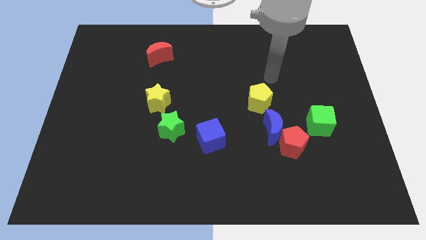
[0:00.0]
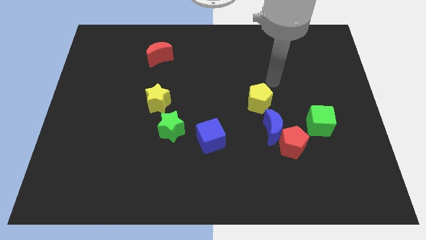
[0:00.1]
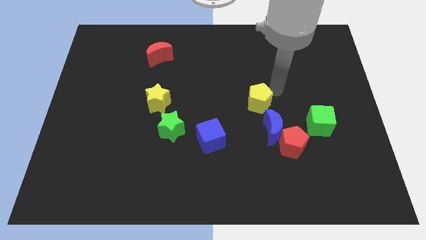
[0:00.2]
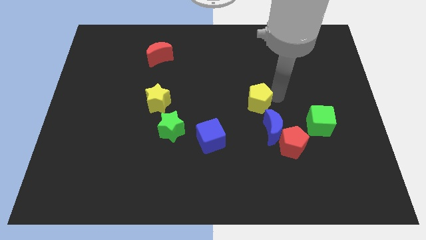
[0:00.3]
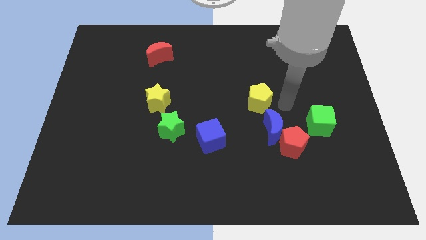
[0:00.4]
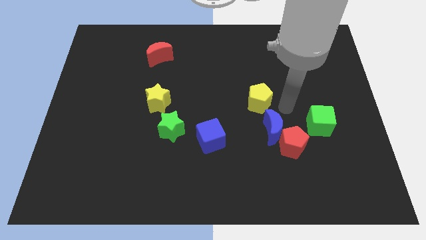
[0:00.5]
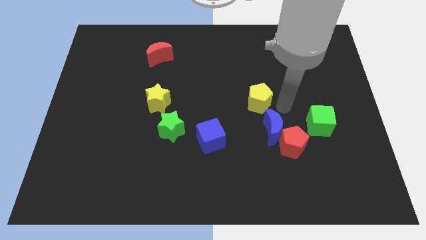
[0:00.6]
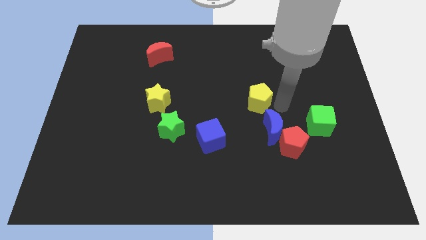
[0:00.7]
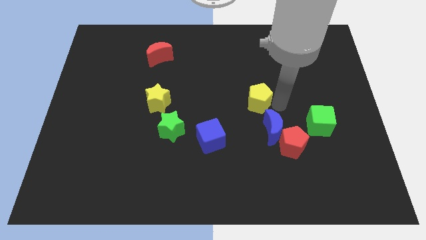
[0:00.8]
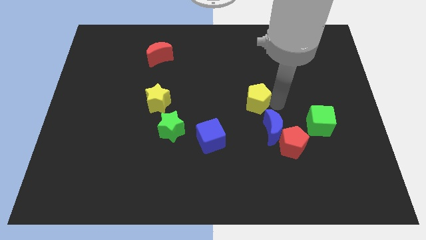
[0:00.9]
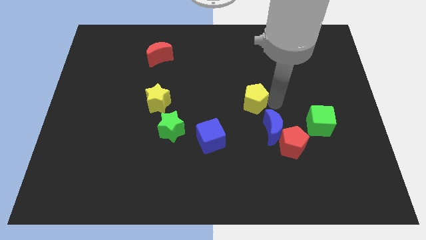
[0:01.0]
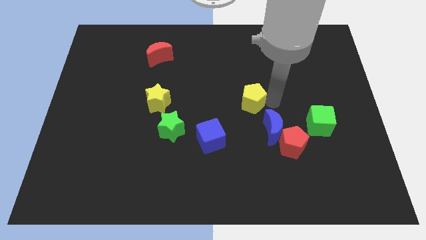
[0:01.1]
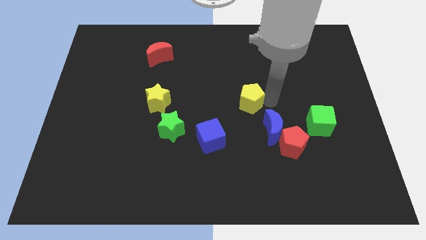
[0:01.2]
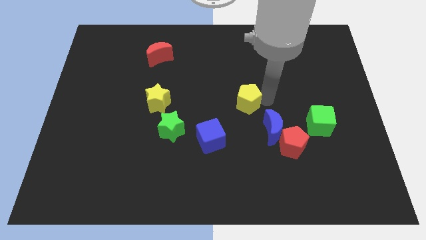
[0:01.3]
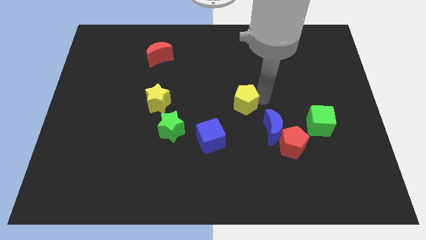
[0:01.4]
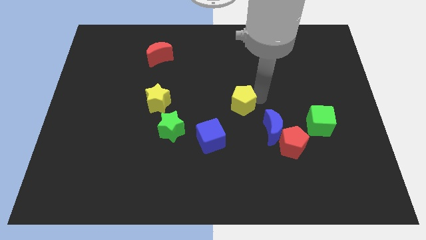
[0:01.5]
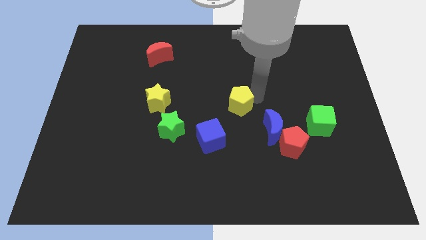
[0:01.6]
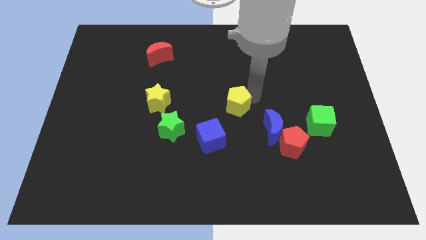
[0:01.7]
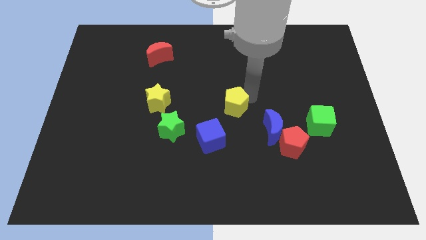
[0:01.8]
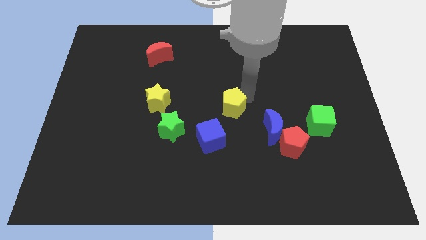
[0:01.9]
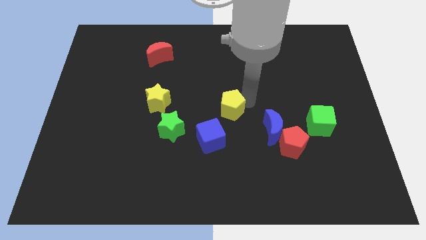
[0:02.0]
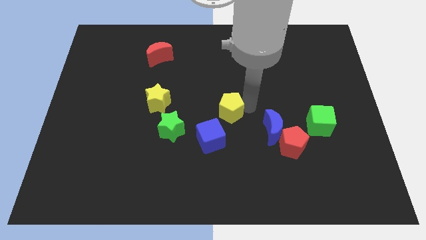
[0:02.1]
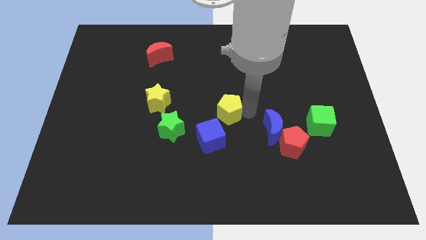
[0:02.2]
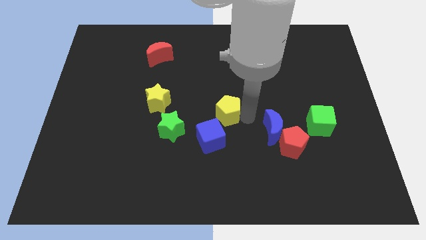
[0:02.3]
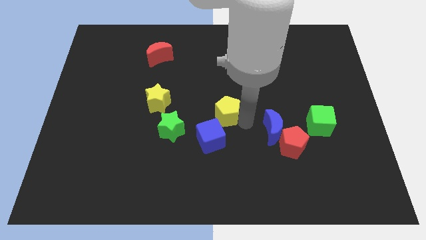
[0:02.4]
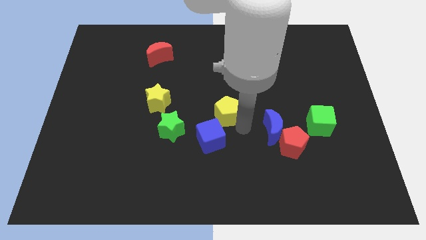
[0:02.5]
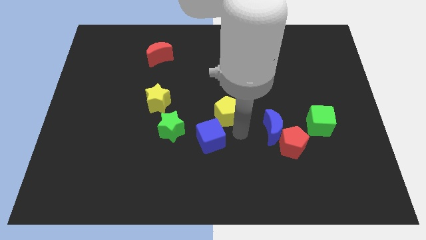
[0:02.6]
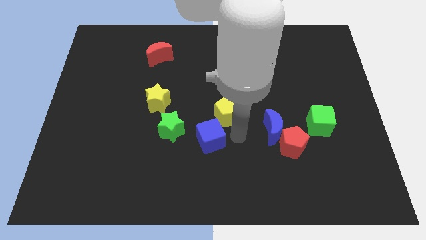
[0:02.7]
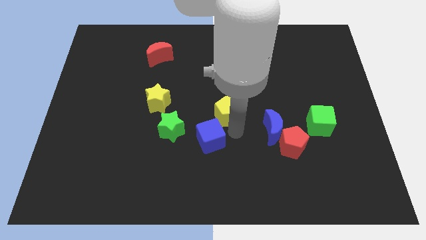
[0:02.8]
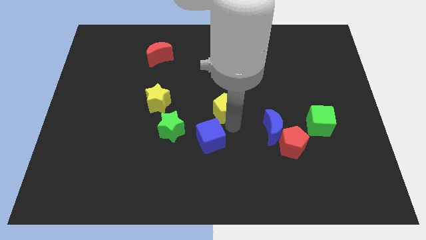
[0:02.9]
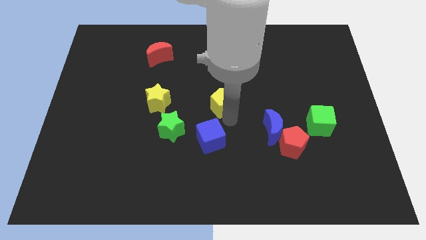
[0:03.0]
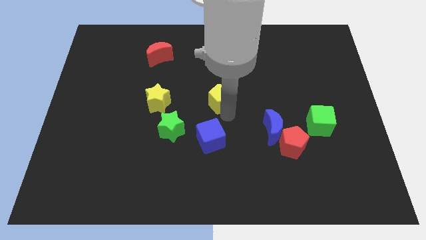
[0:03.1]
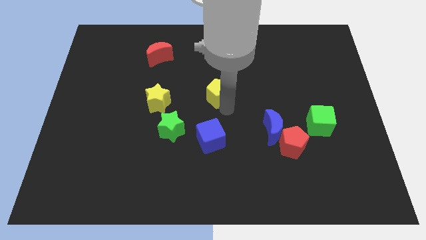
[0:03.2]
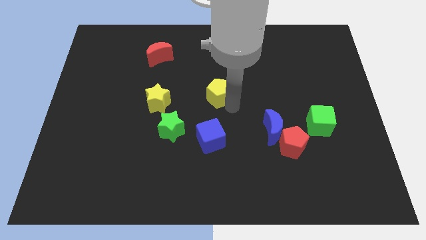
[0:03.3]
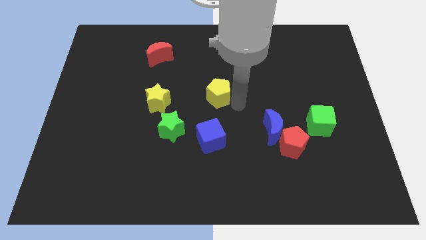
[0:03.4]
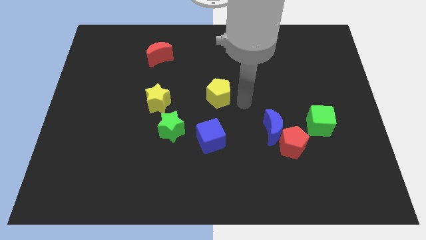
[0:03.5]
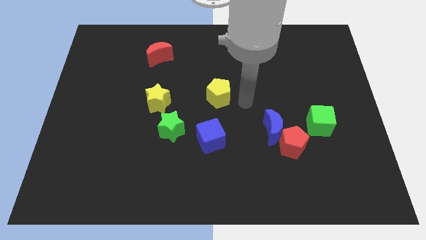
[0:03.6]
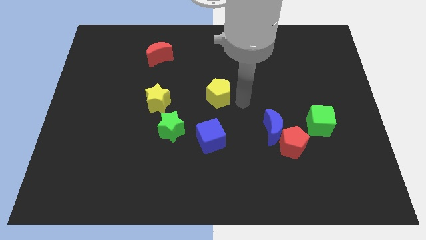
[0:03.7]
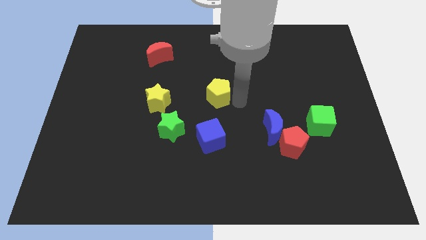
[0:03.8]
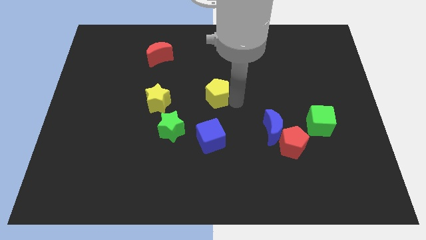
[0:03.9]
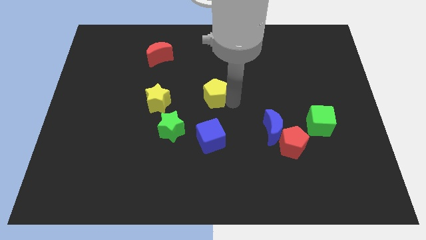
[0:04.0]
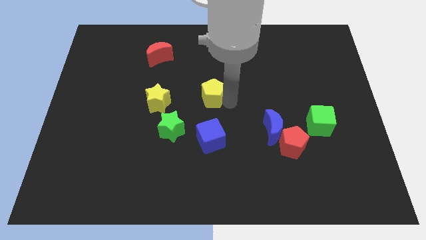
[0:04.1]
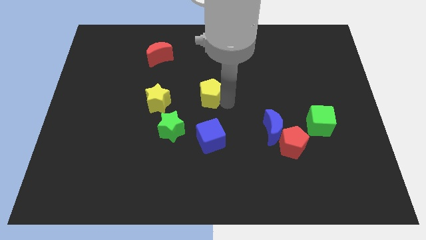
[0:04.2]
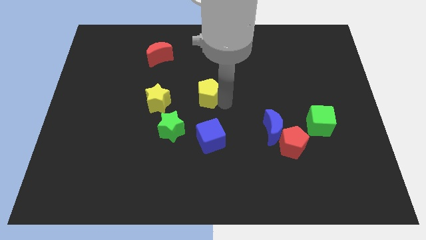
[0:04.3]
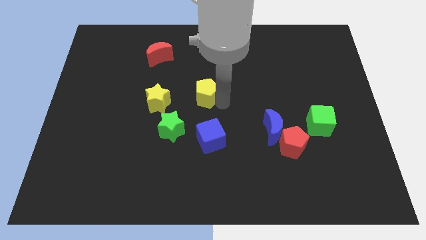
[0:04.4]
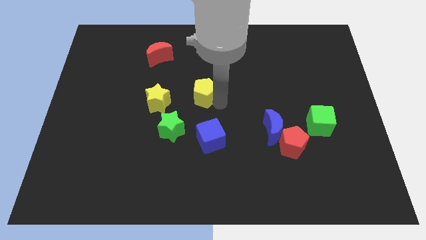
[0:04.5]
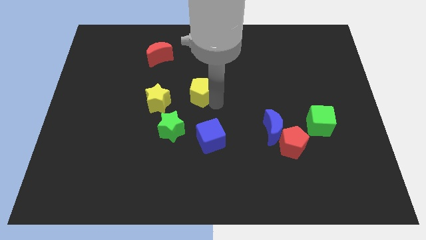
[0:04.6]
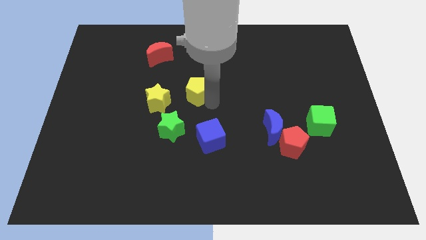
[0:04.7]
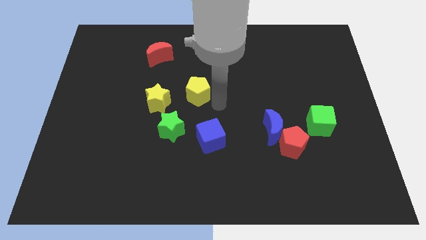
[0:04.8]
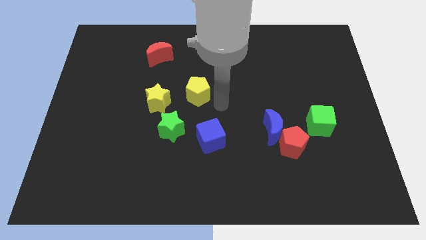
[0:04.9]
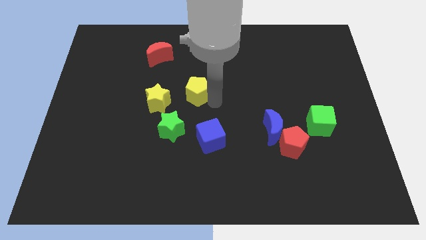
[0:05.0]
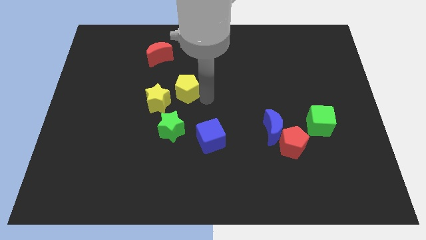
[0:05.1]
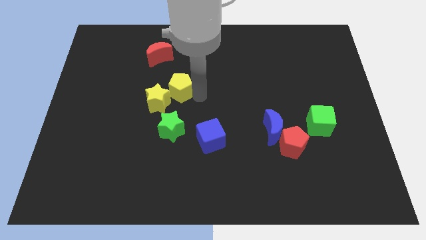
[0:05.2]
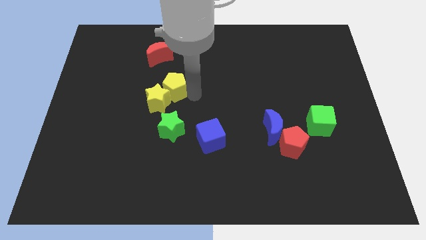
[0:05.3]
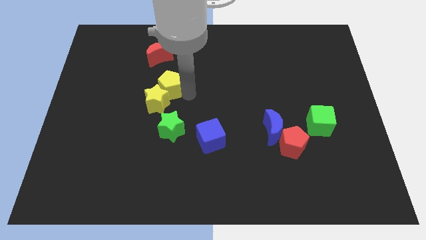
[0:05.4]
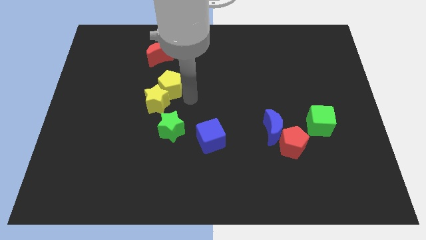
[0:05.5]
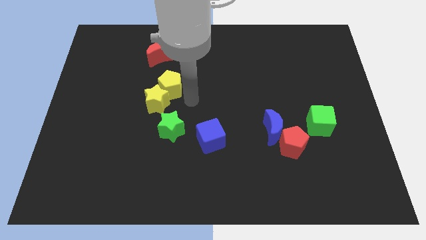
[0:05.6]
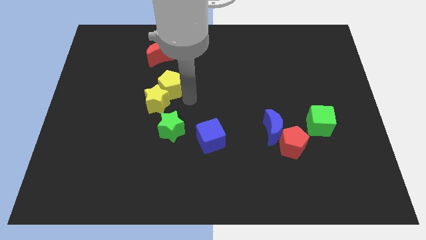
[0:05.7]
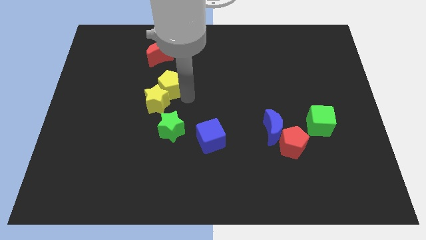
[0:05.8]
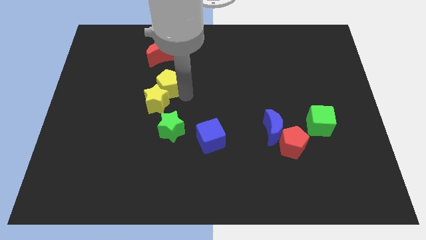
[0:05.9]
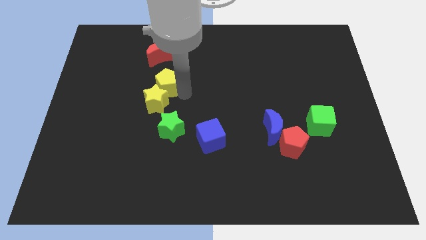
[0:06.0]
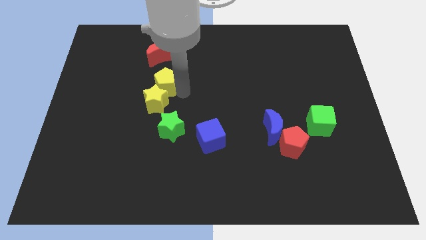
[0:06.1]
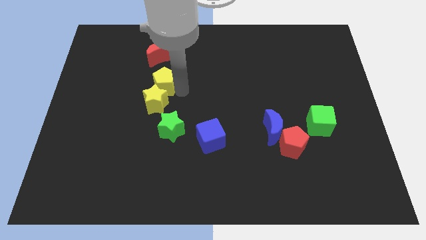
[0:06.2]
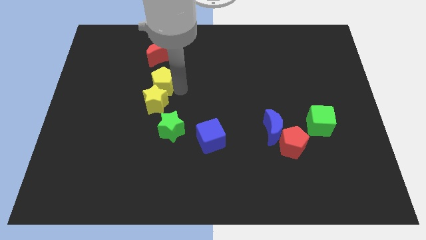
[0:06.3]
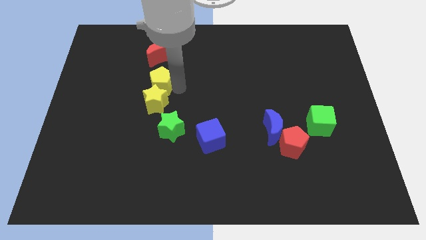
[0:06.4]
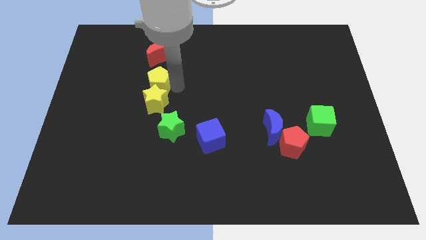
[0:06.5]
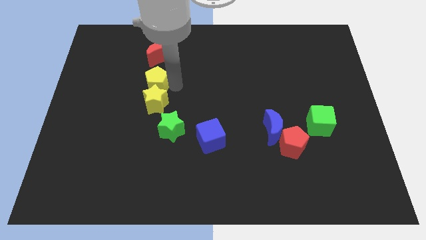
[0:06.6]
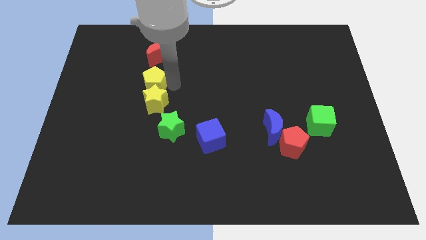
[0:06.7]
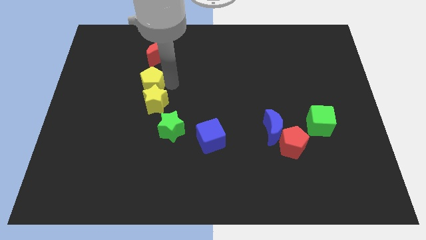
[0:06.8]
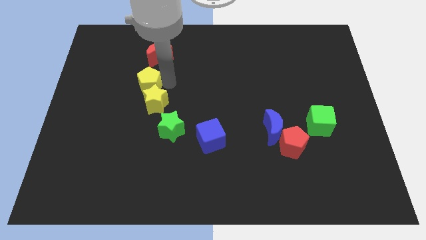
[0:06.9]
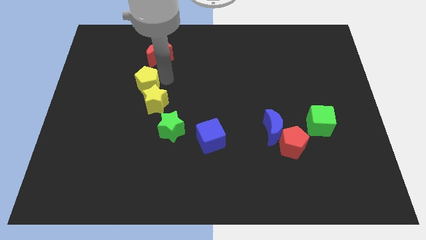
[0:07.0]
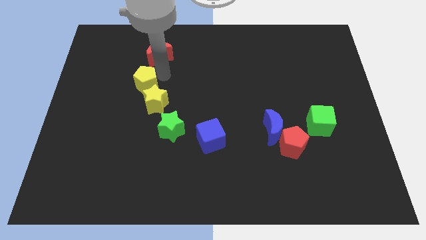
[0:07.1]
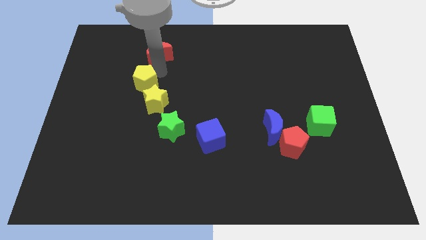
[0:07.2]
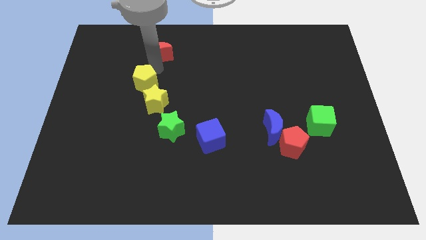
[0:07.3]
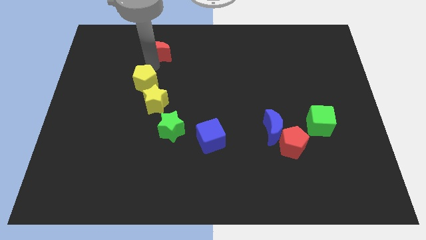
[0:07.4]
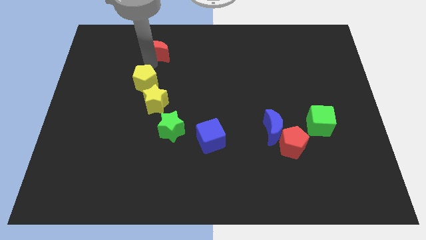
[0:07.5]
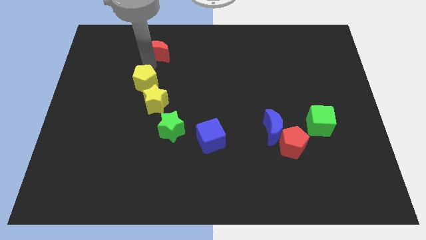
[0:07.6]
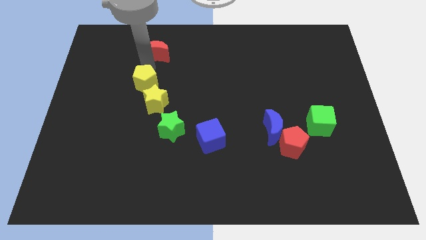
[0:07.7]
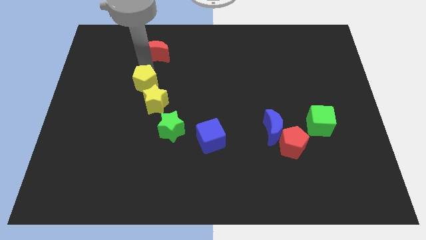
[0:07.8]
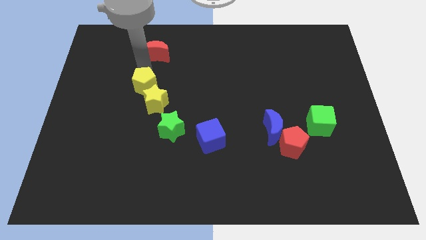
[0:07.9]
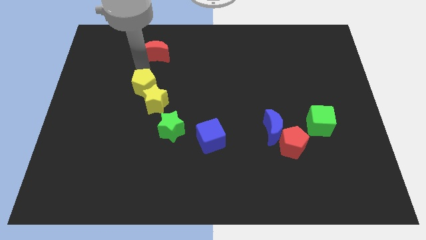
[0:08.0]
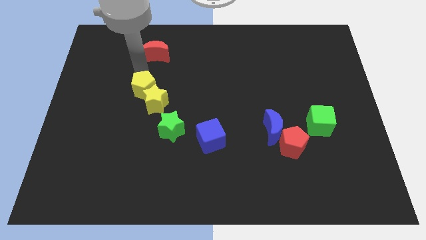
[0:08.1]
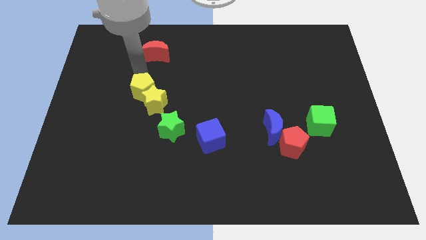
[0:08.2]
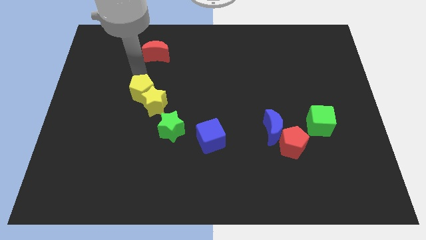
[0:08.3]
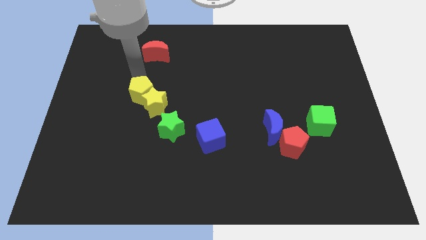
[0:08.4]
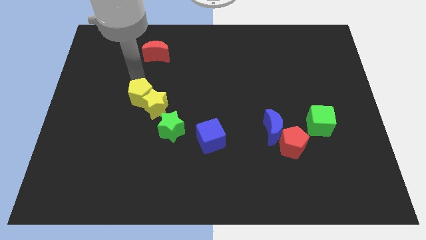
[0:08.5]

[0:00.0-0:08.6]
move the yellow pentagon to the top left of the green star
